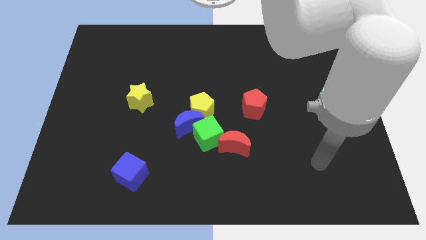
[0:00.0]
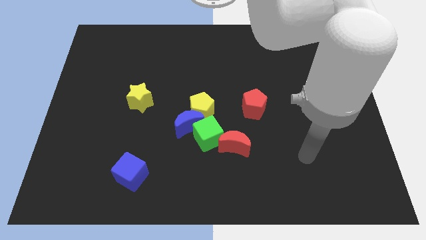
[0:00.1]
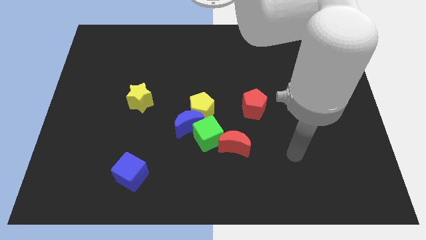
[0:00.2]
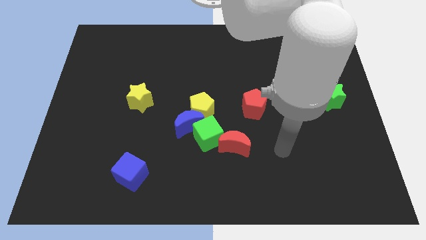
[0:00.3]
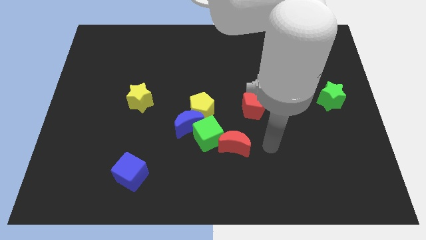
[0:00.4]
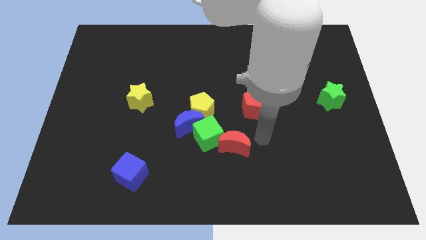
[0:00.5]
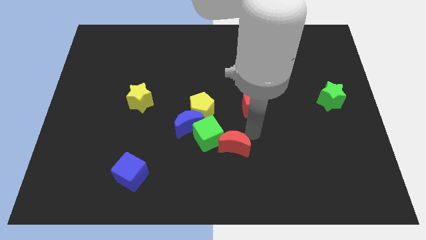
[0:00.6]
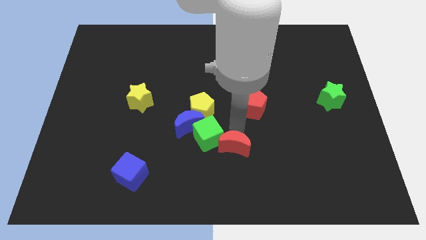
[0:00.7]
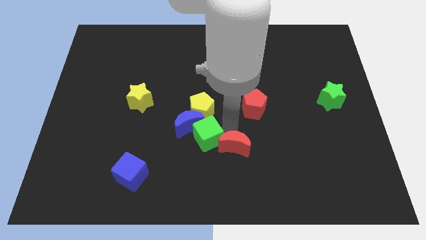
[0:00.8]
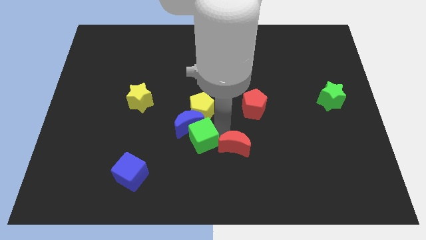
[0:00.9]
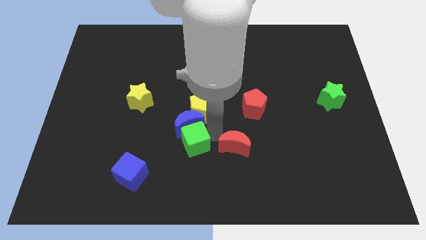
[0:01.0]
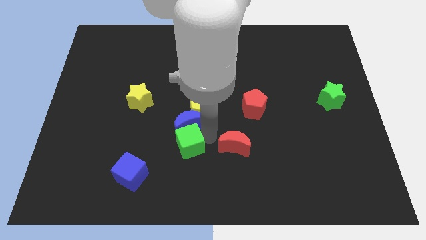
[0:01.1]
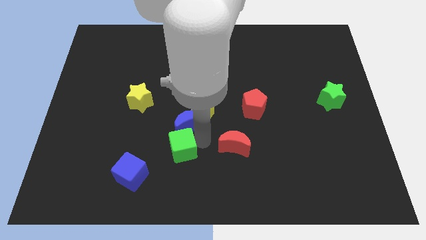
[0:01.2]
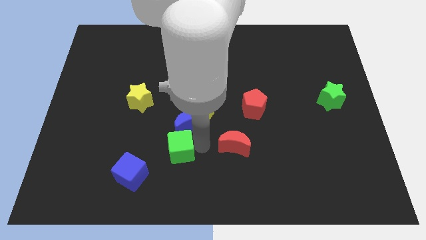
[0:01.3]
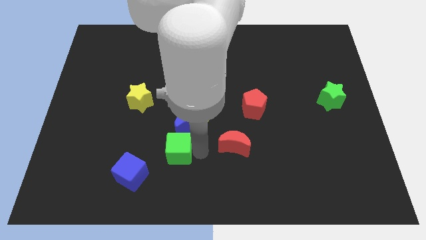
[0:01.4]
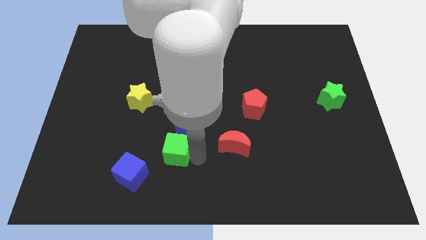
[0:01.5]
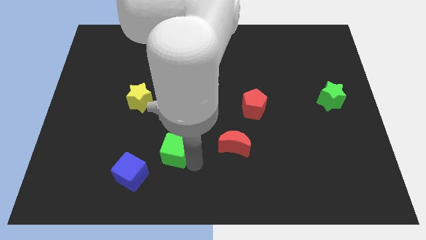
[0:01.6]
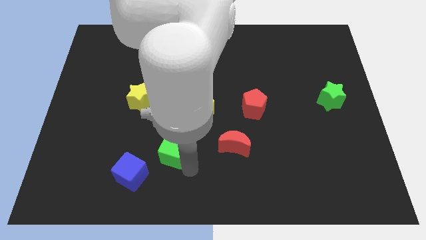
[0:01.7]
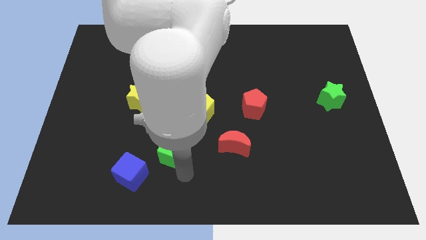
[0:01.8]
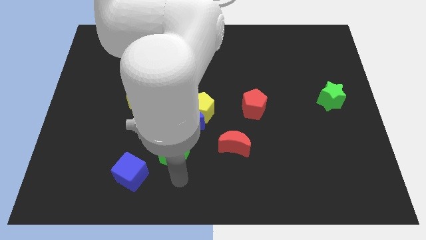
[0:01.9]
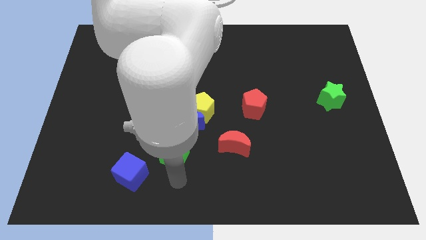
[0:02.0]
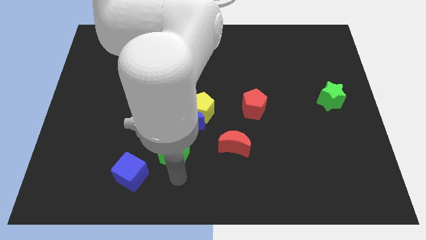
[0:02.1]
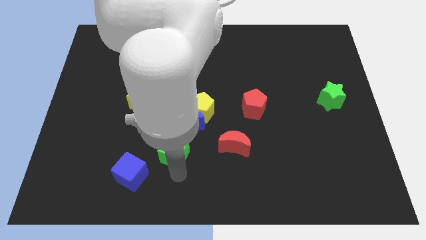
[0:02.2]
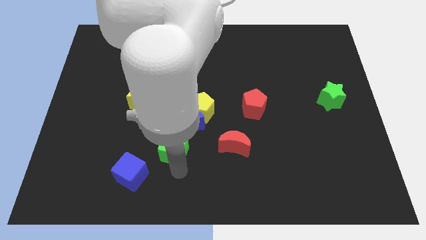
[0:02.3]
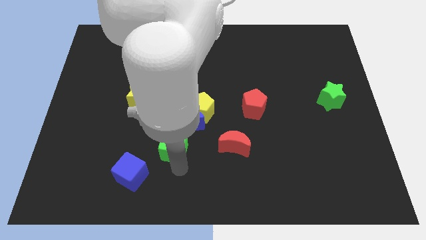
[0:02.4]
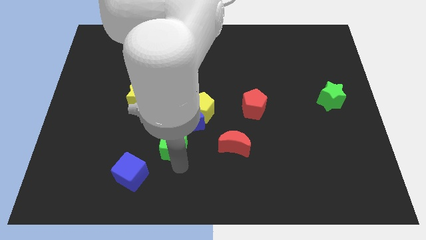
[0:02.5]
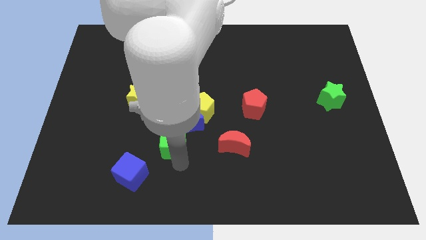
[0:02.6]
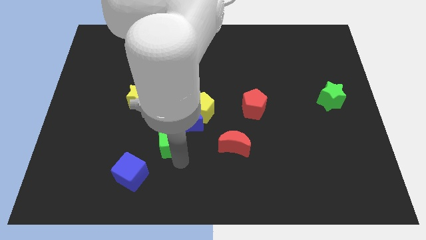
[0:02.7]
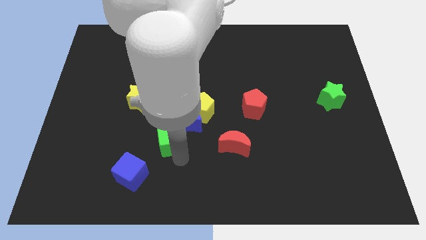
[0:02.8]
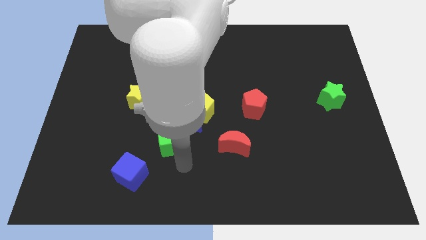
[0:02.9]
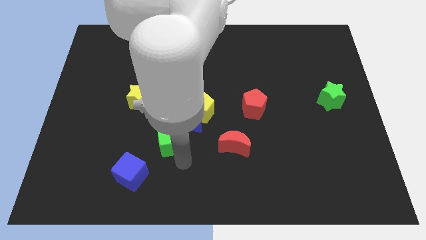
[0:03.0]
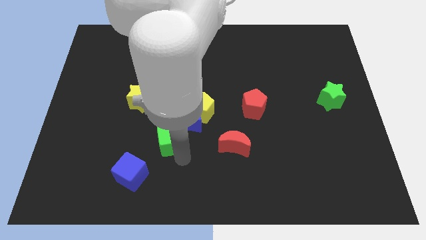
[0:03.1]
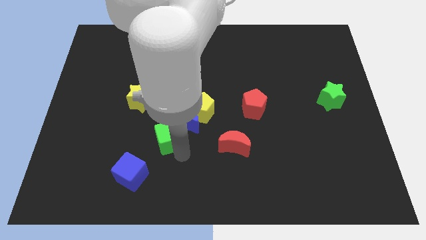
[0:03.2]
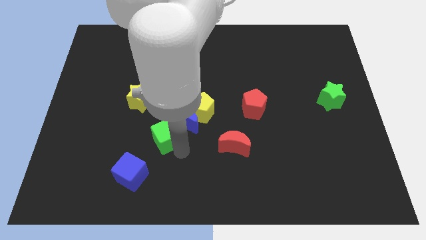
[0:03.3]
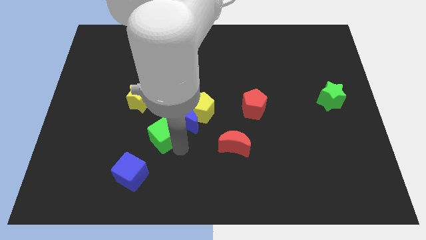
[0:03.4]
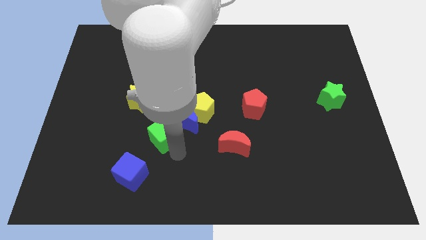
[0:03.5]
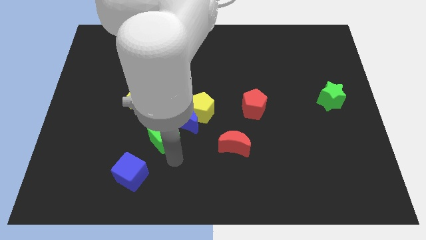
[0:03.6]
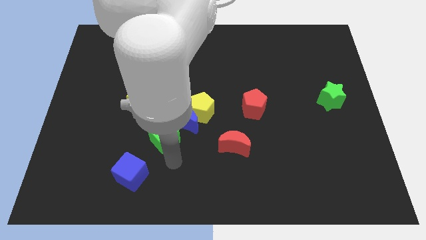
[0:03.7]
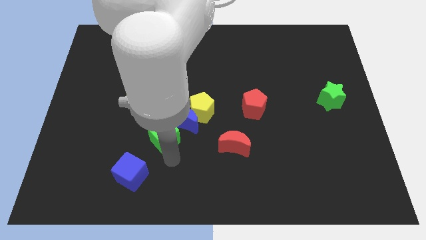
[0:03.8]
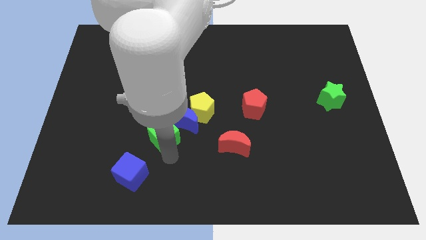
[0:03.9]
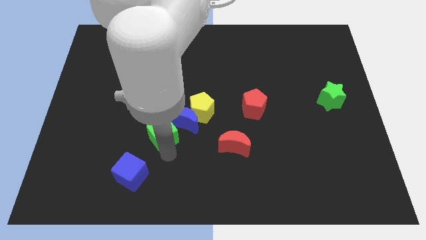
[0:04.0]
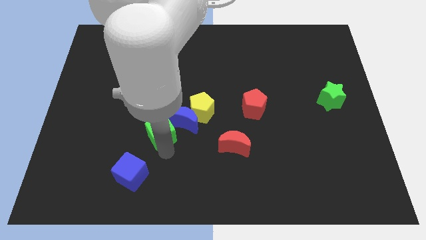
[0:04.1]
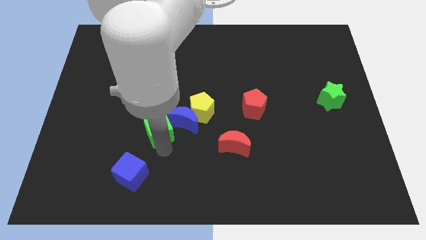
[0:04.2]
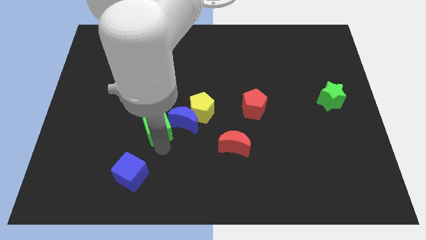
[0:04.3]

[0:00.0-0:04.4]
push the green cube a bit diagonally up and left

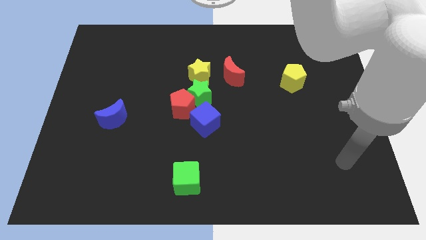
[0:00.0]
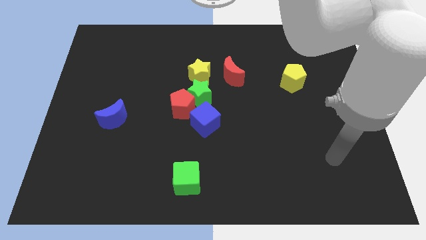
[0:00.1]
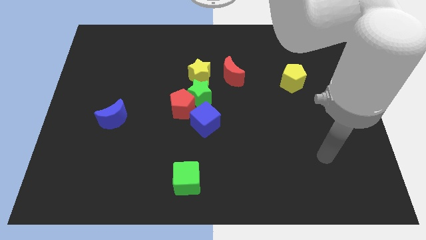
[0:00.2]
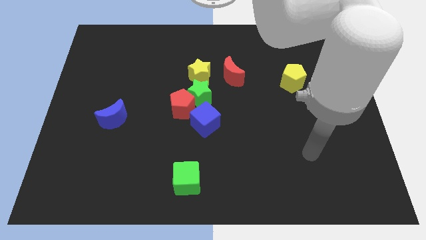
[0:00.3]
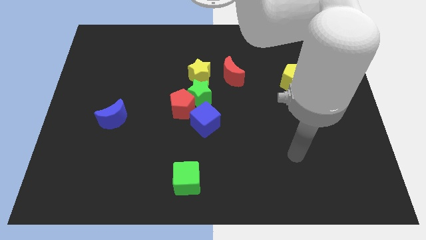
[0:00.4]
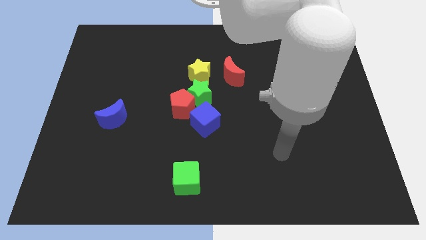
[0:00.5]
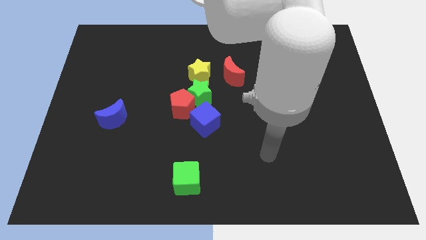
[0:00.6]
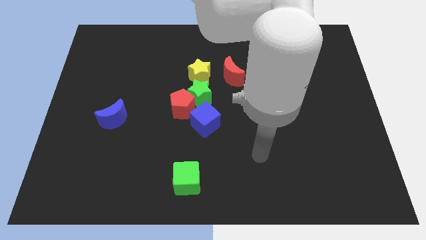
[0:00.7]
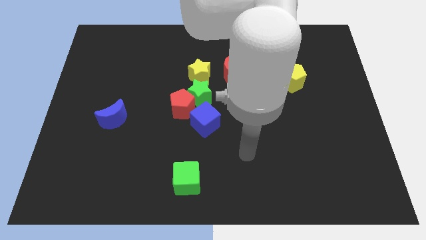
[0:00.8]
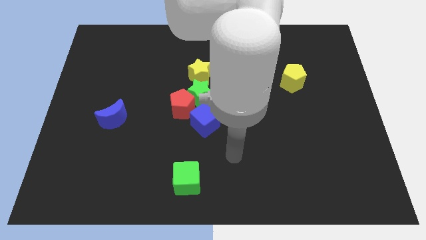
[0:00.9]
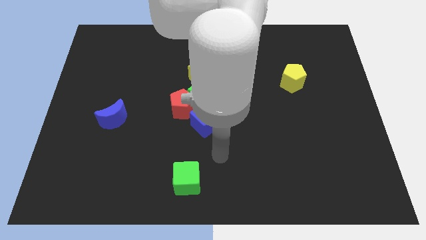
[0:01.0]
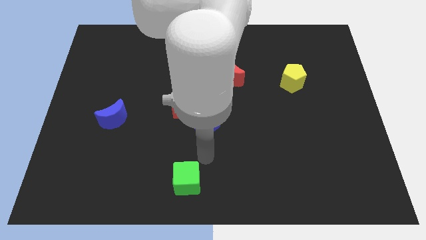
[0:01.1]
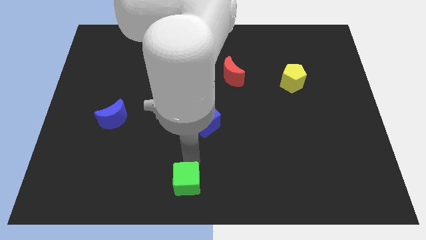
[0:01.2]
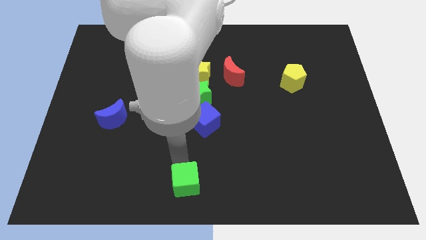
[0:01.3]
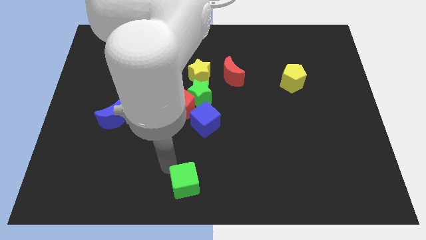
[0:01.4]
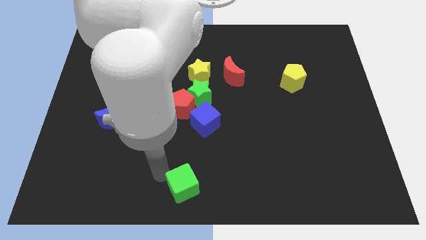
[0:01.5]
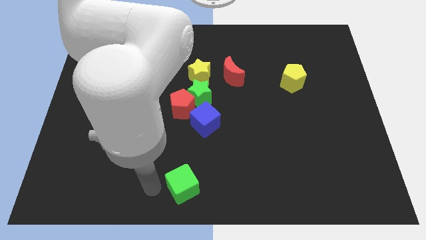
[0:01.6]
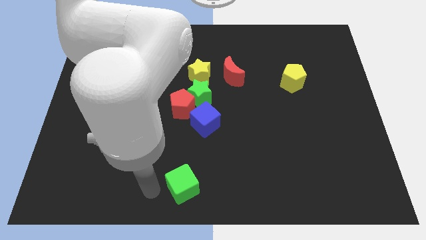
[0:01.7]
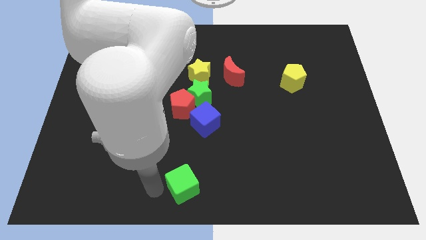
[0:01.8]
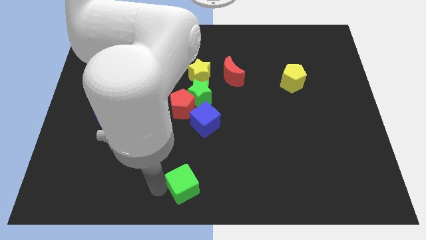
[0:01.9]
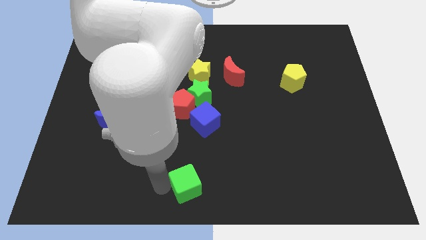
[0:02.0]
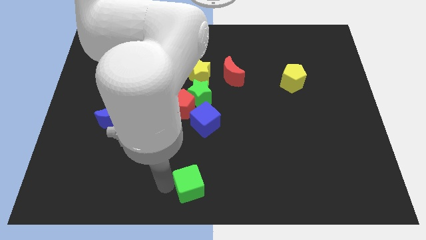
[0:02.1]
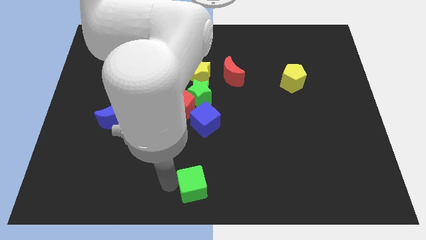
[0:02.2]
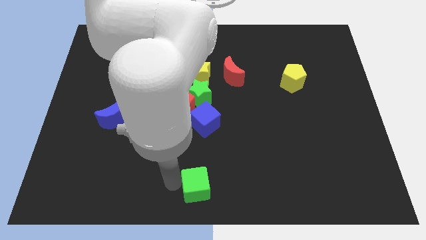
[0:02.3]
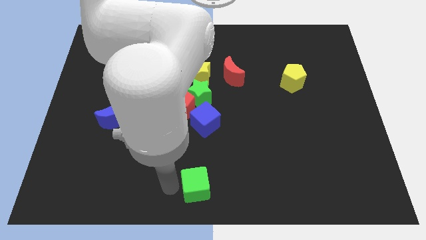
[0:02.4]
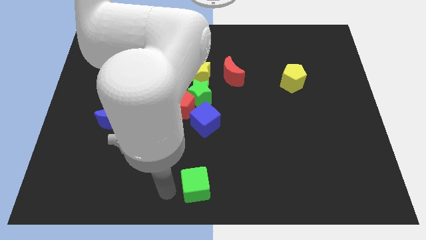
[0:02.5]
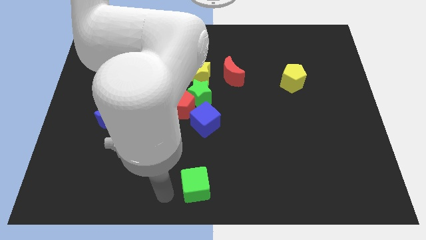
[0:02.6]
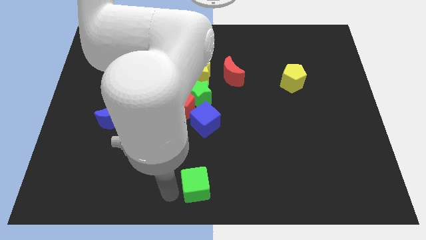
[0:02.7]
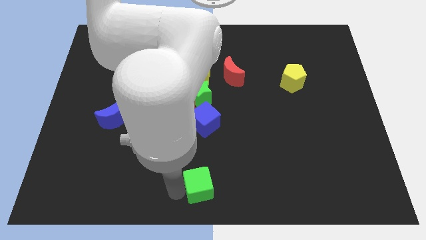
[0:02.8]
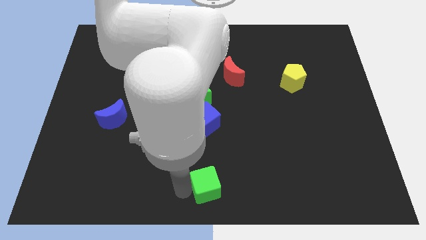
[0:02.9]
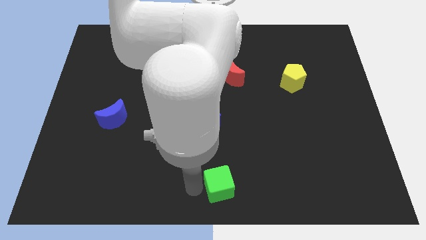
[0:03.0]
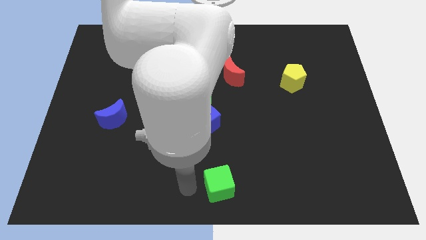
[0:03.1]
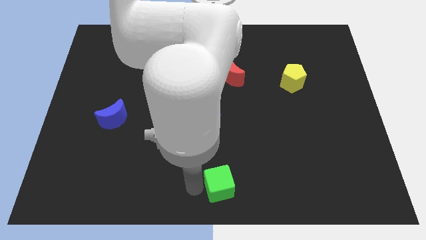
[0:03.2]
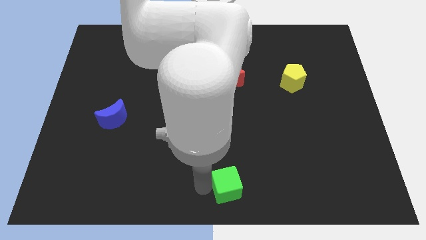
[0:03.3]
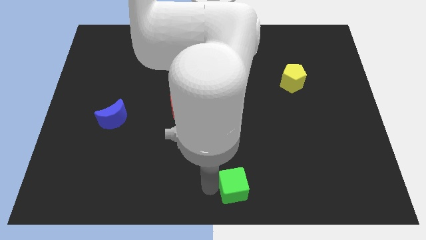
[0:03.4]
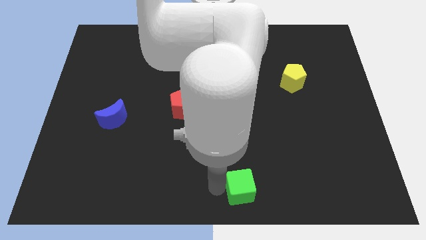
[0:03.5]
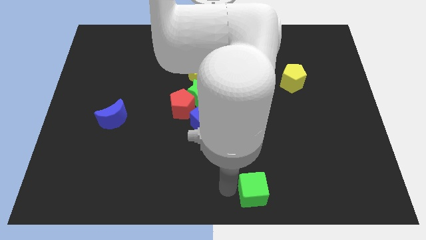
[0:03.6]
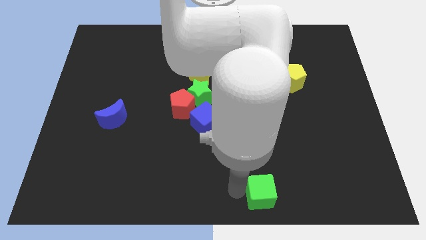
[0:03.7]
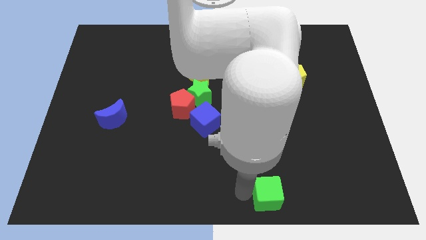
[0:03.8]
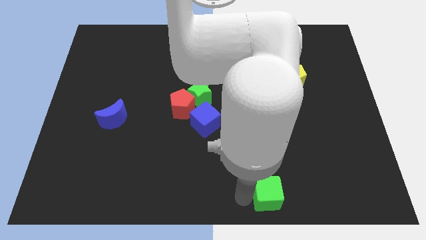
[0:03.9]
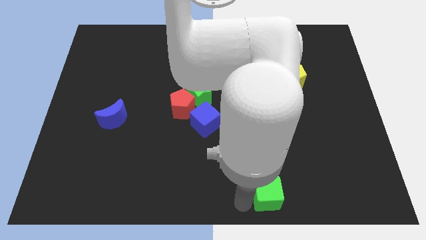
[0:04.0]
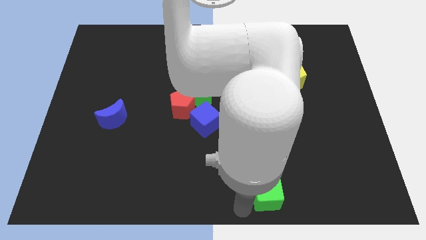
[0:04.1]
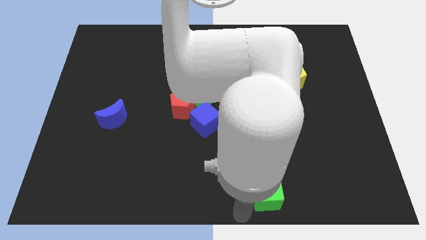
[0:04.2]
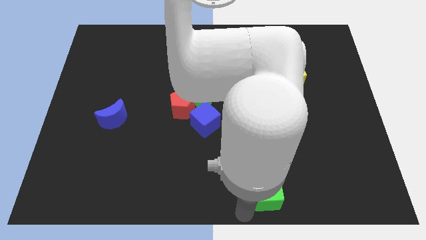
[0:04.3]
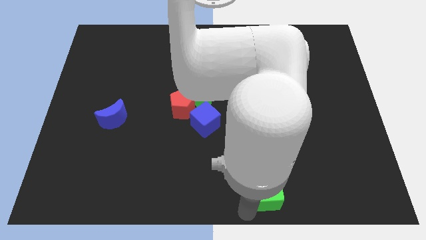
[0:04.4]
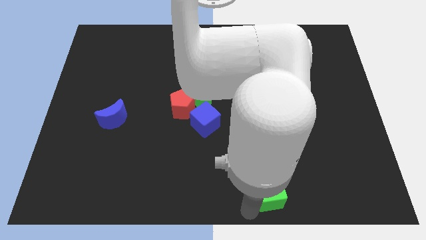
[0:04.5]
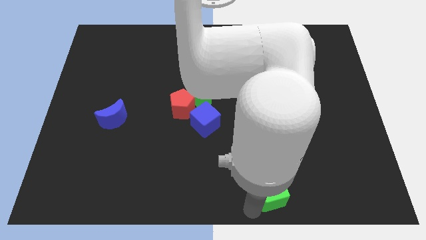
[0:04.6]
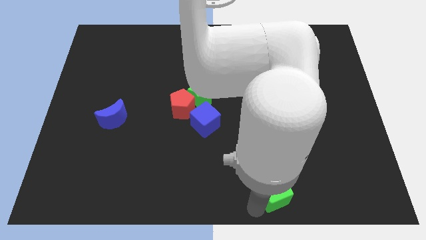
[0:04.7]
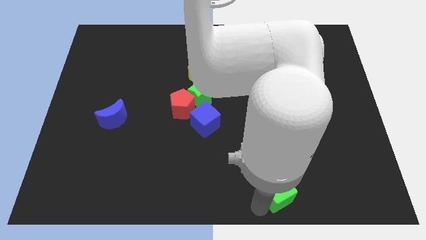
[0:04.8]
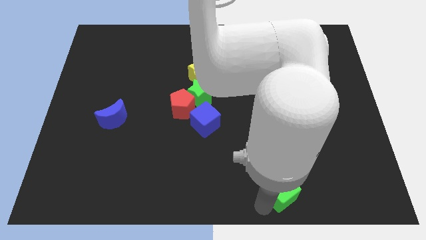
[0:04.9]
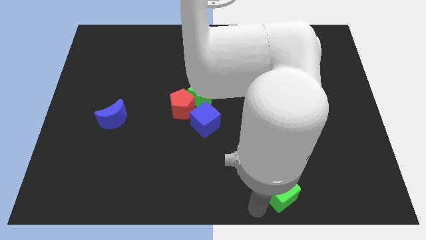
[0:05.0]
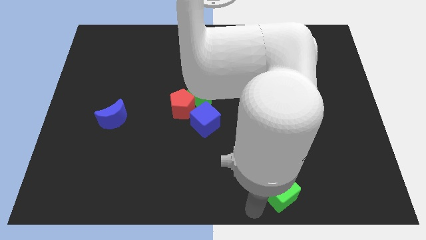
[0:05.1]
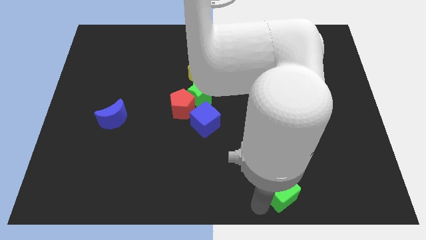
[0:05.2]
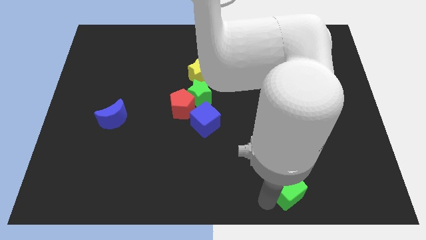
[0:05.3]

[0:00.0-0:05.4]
push the green cube to the right
